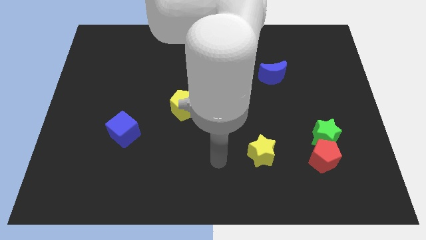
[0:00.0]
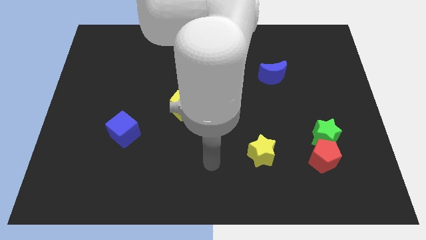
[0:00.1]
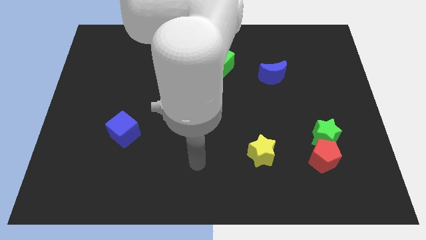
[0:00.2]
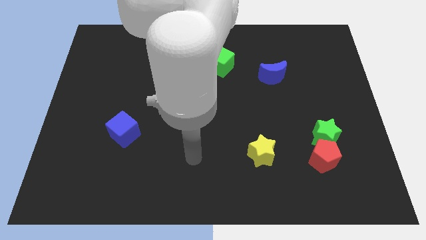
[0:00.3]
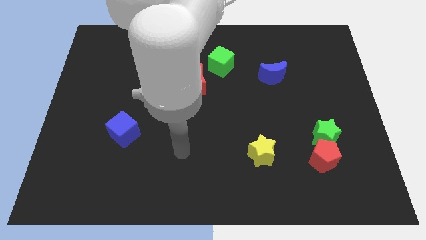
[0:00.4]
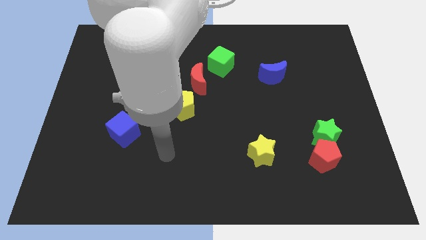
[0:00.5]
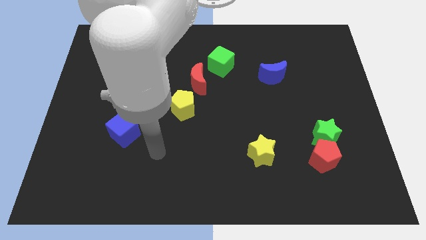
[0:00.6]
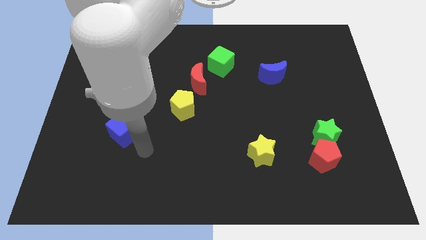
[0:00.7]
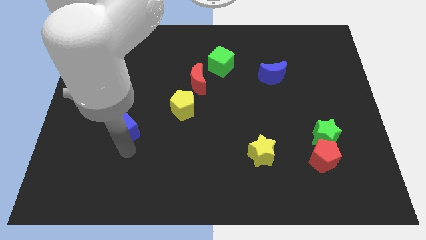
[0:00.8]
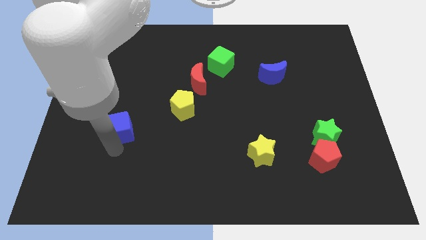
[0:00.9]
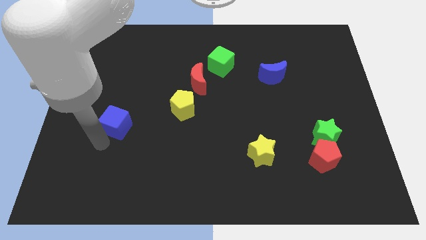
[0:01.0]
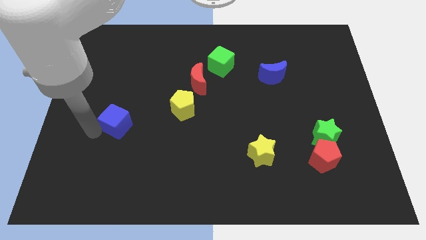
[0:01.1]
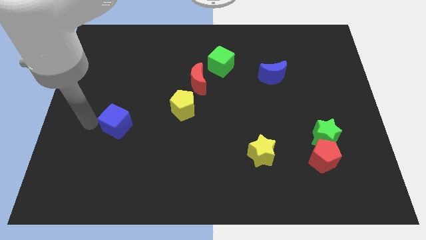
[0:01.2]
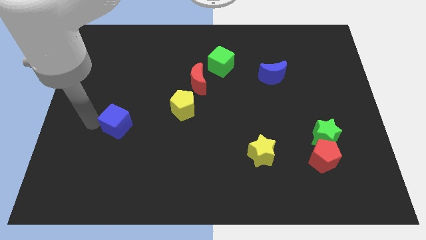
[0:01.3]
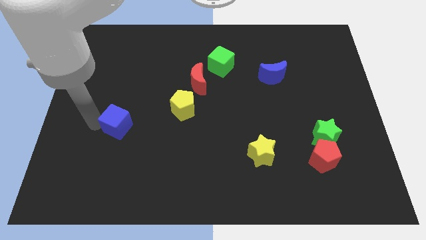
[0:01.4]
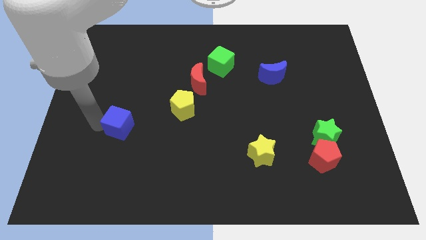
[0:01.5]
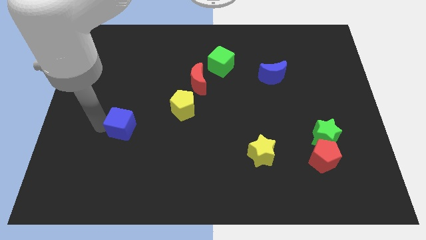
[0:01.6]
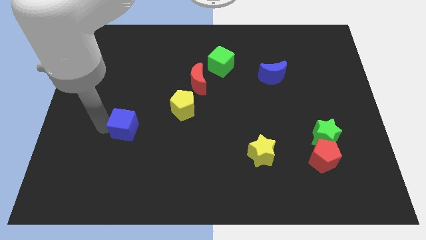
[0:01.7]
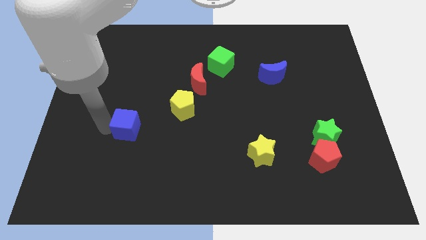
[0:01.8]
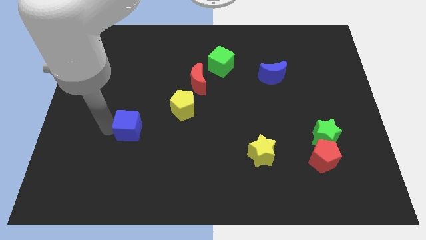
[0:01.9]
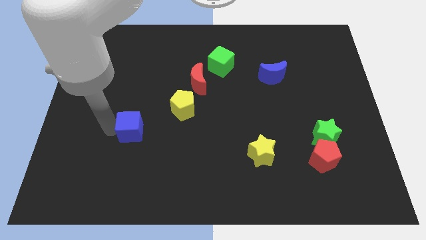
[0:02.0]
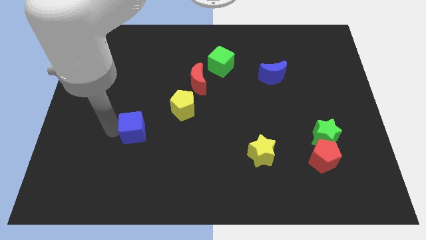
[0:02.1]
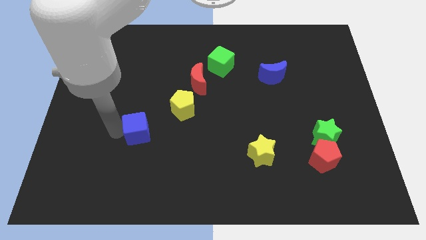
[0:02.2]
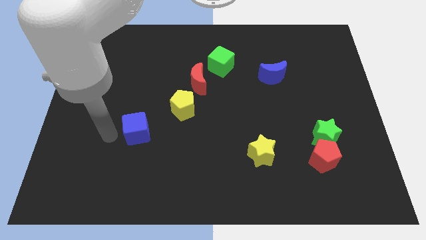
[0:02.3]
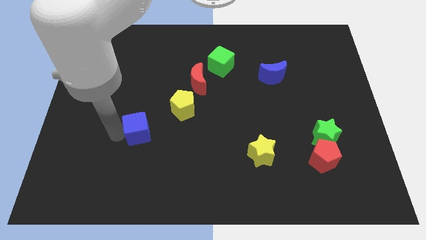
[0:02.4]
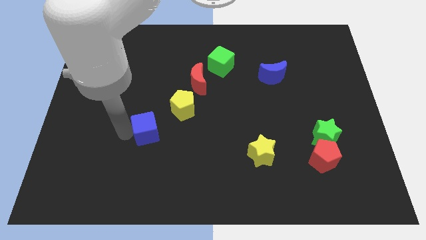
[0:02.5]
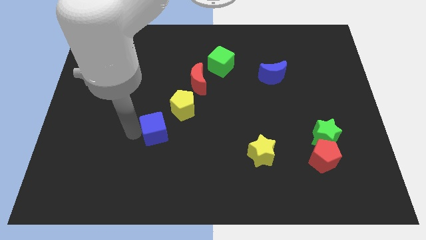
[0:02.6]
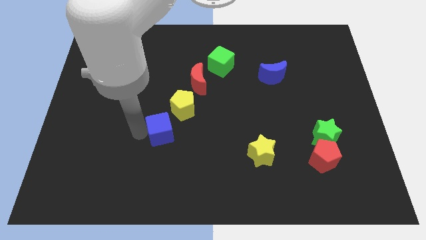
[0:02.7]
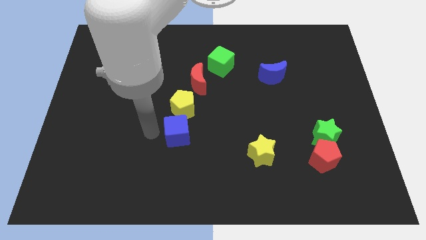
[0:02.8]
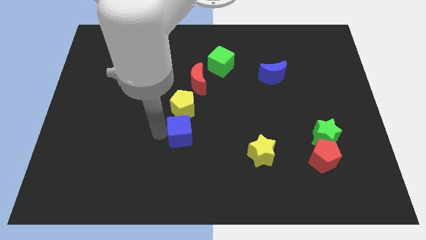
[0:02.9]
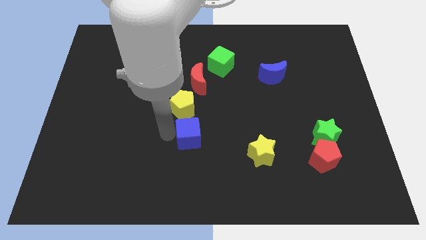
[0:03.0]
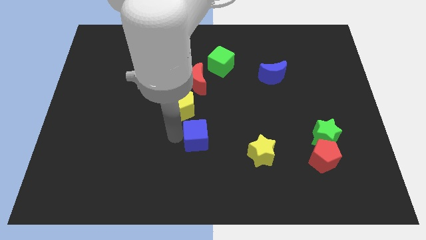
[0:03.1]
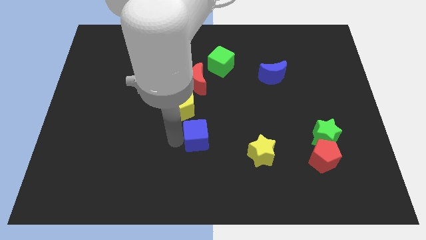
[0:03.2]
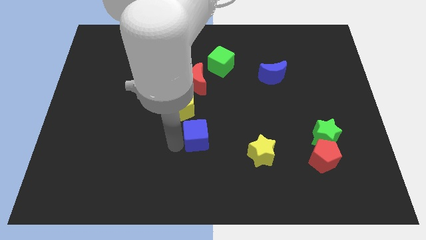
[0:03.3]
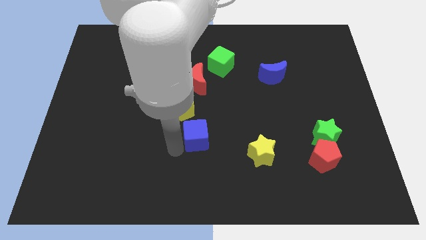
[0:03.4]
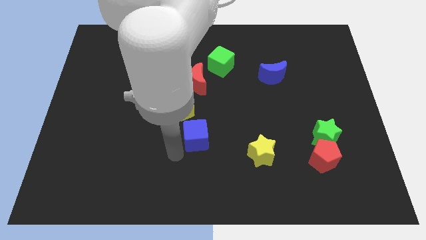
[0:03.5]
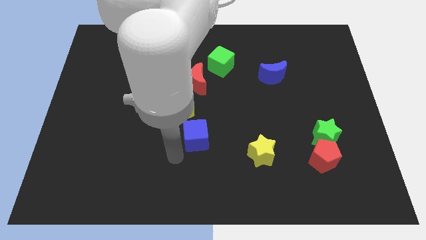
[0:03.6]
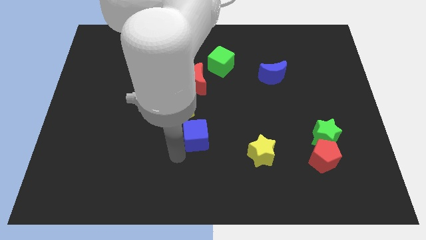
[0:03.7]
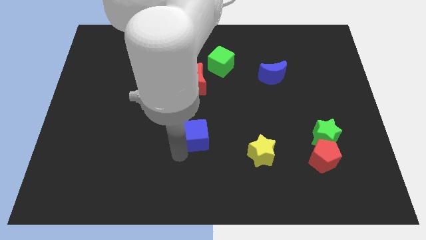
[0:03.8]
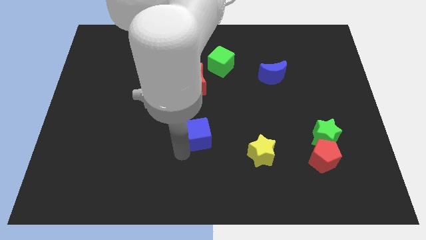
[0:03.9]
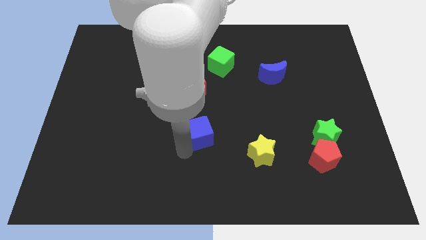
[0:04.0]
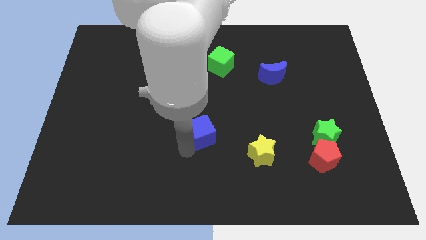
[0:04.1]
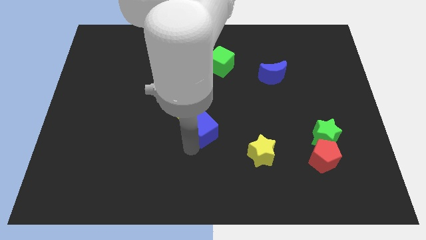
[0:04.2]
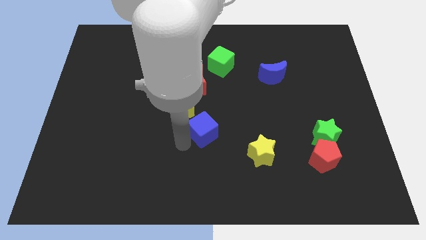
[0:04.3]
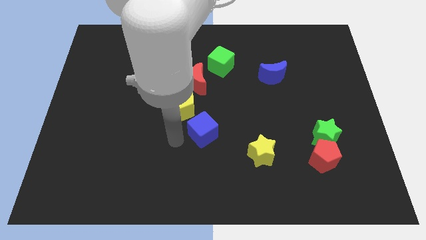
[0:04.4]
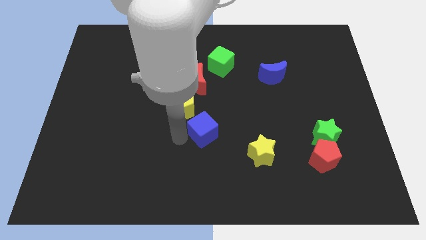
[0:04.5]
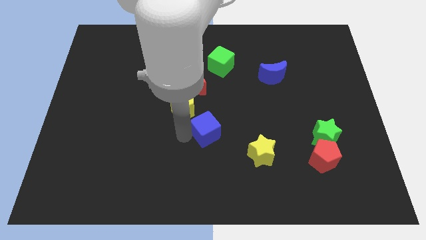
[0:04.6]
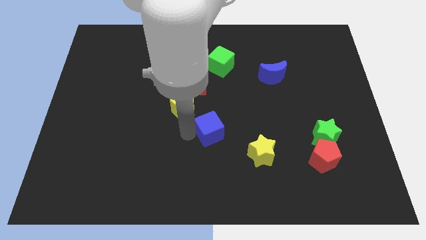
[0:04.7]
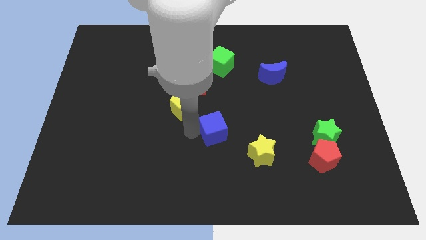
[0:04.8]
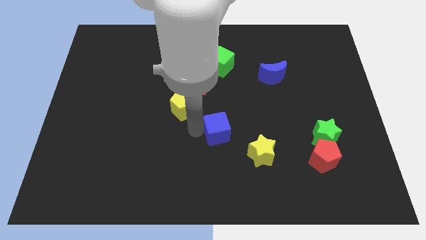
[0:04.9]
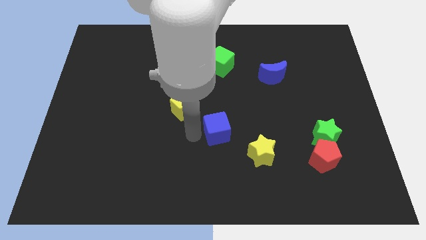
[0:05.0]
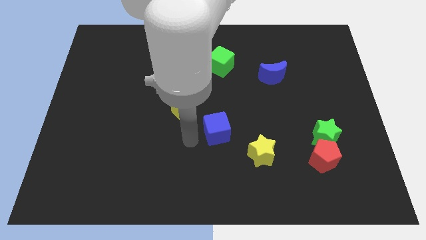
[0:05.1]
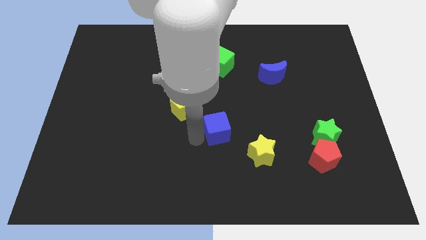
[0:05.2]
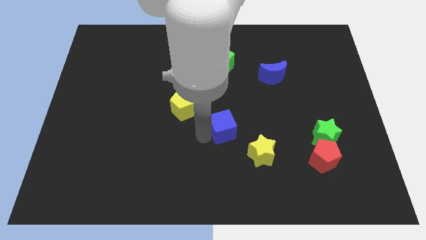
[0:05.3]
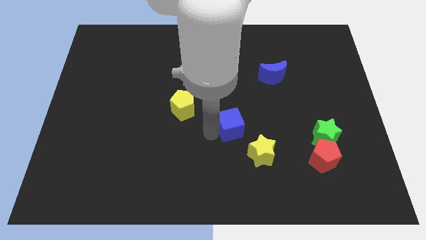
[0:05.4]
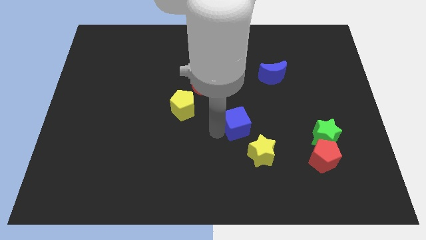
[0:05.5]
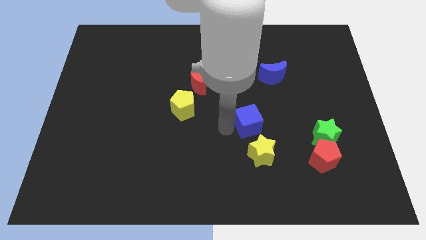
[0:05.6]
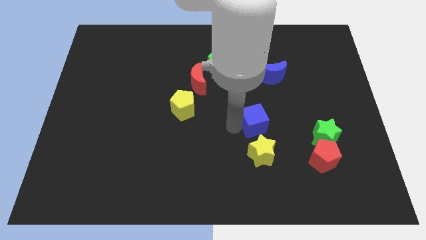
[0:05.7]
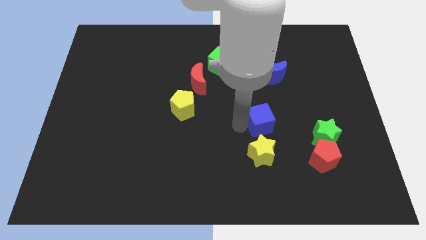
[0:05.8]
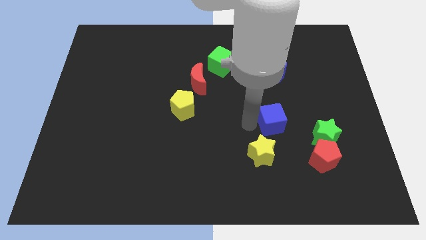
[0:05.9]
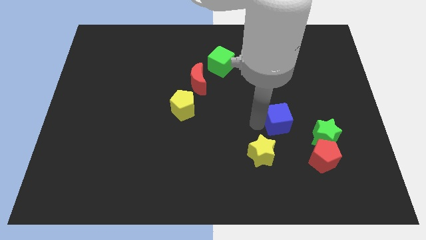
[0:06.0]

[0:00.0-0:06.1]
push the blue cube diagonally up and to the left of the green star

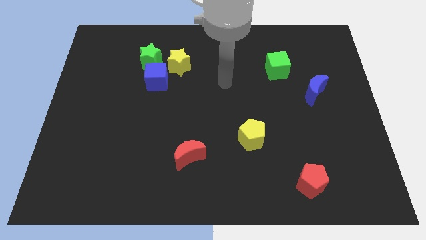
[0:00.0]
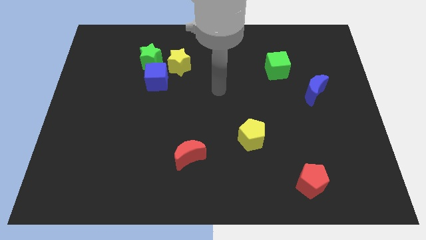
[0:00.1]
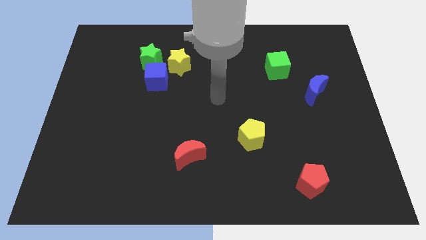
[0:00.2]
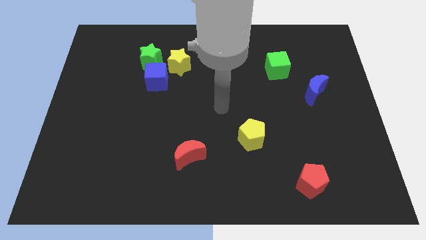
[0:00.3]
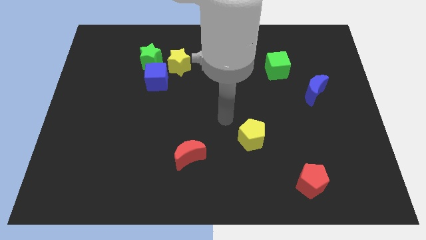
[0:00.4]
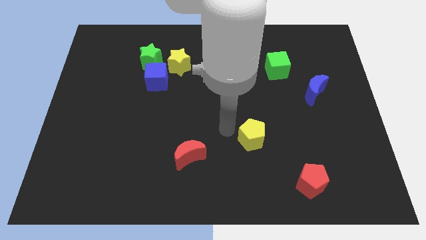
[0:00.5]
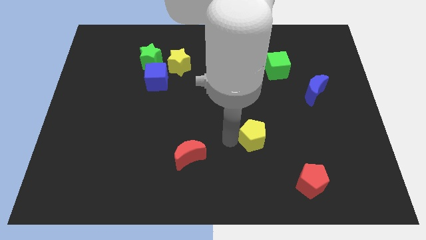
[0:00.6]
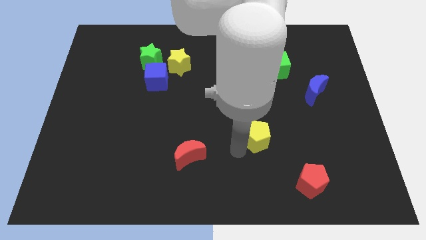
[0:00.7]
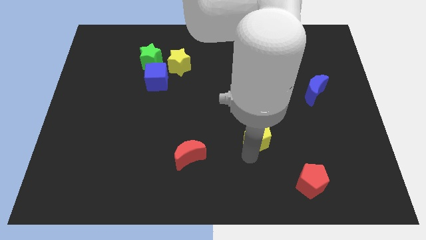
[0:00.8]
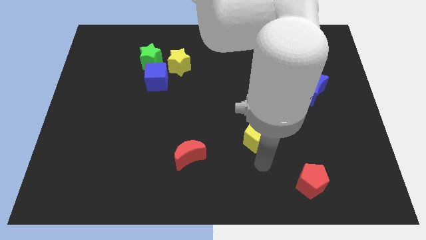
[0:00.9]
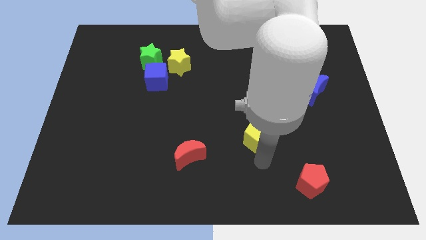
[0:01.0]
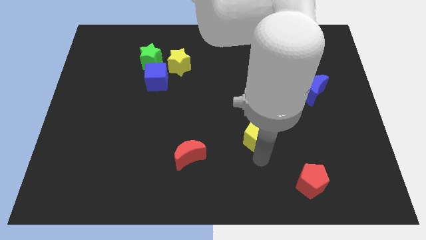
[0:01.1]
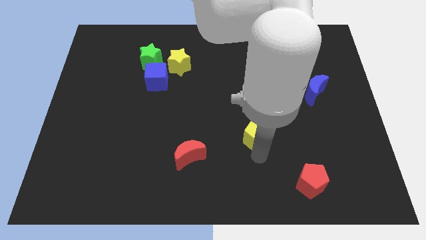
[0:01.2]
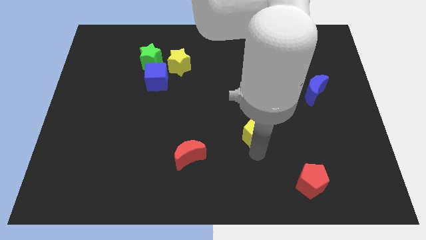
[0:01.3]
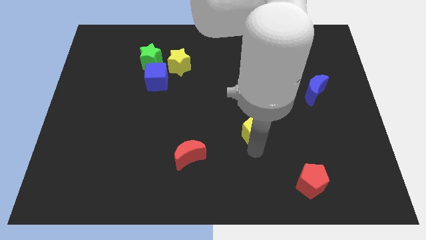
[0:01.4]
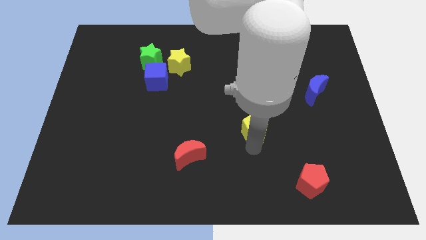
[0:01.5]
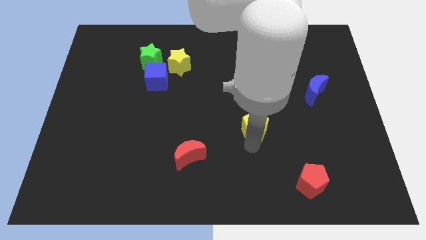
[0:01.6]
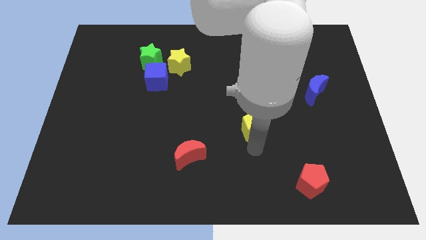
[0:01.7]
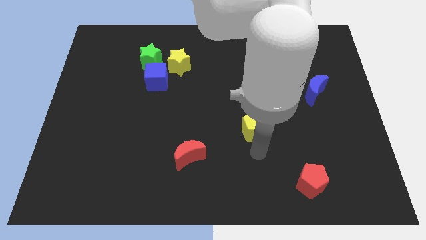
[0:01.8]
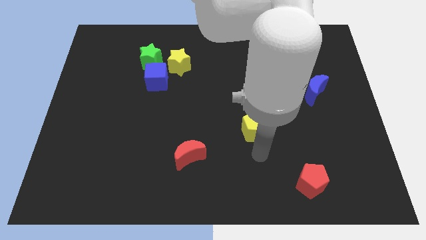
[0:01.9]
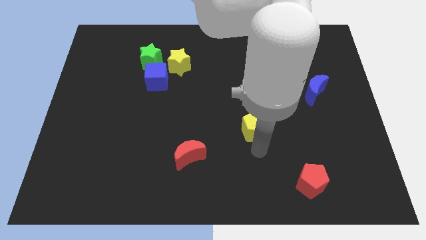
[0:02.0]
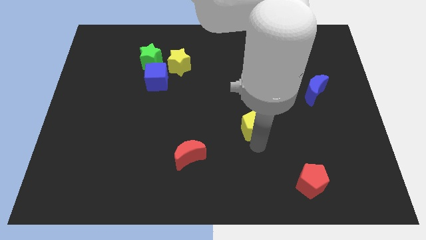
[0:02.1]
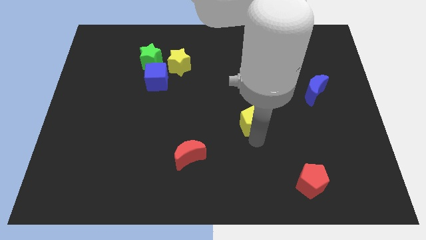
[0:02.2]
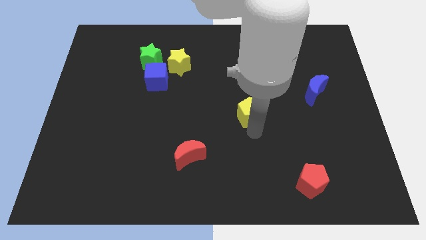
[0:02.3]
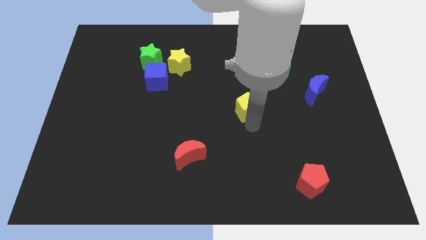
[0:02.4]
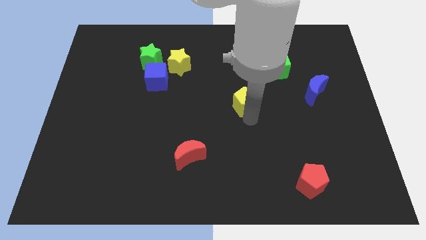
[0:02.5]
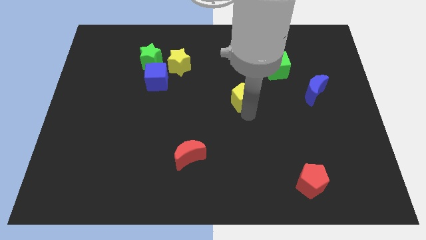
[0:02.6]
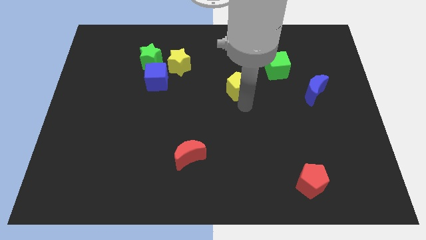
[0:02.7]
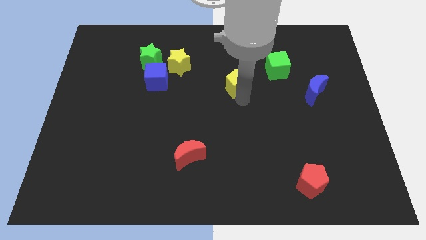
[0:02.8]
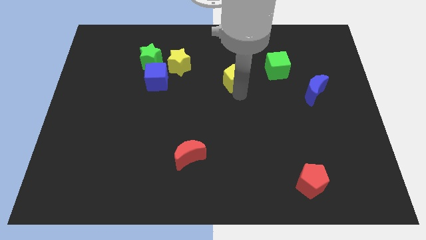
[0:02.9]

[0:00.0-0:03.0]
push the yellow pentagon left of the green cube
